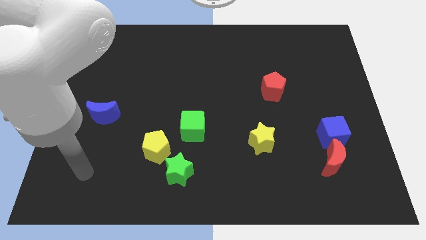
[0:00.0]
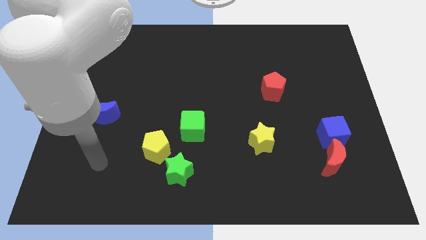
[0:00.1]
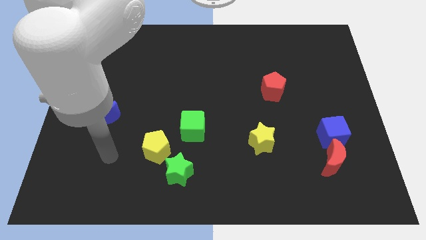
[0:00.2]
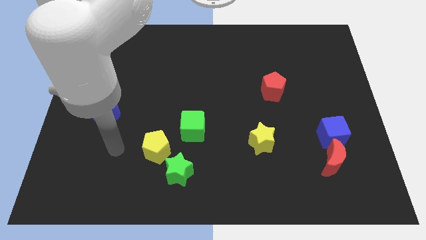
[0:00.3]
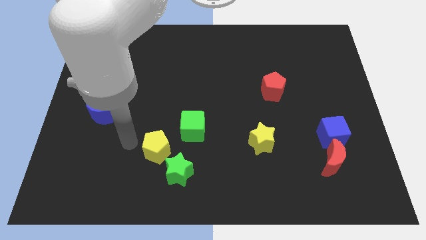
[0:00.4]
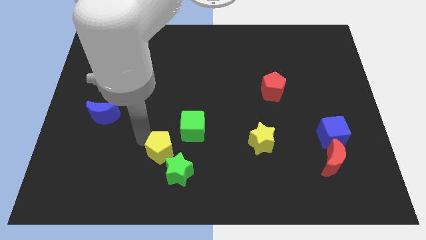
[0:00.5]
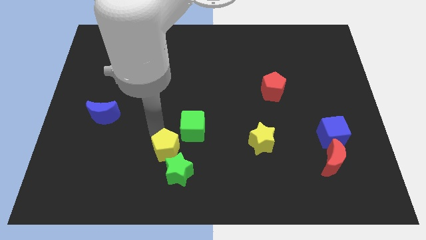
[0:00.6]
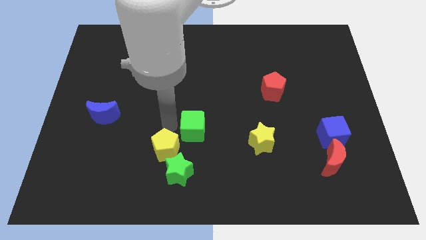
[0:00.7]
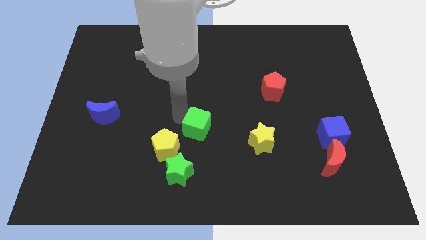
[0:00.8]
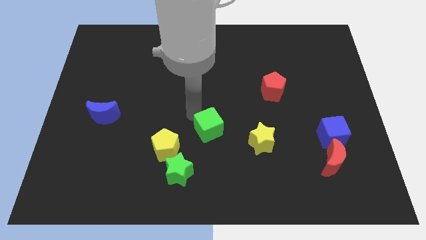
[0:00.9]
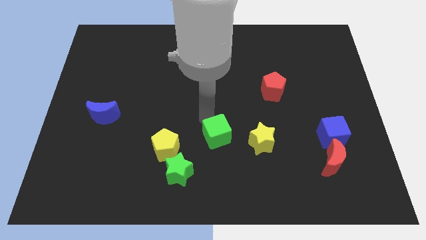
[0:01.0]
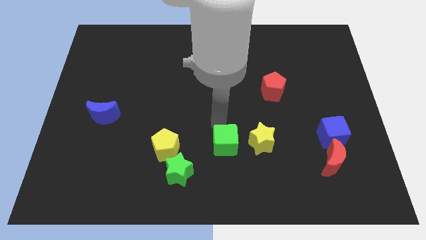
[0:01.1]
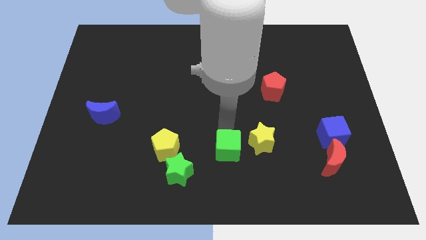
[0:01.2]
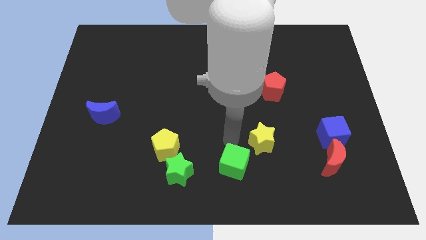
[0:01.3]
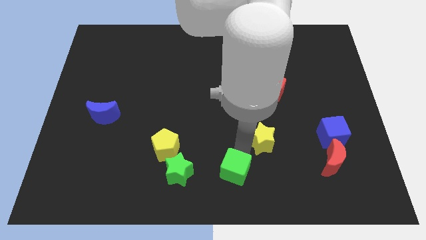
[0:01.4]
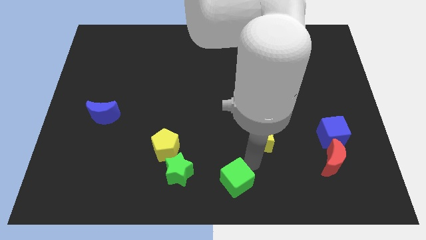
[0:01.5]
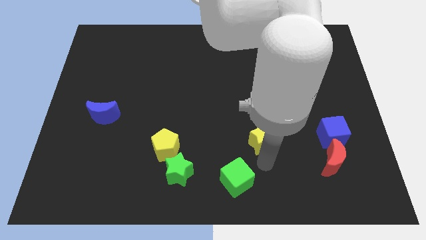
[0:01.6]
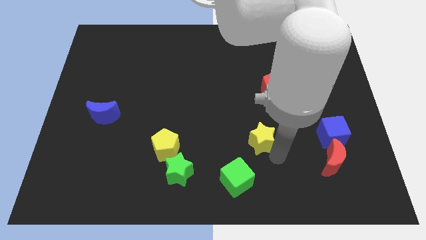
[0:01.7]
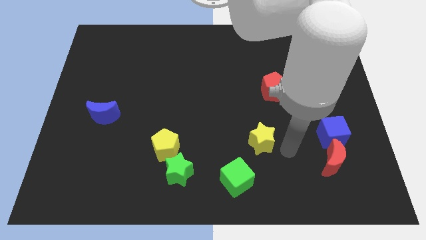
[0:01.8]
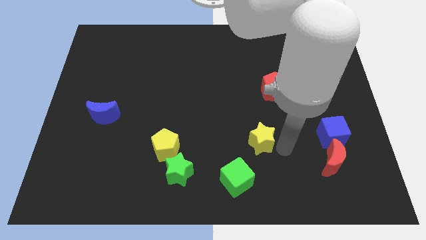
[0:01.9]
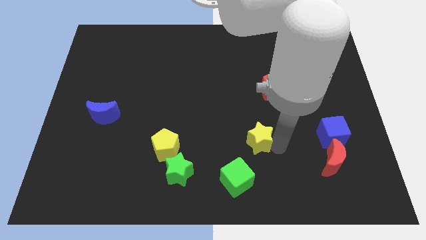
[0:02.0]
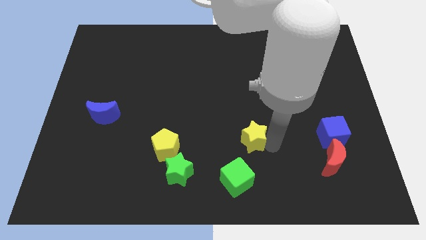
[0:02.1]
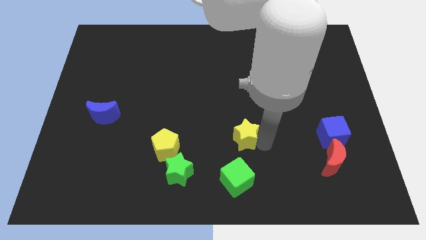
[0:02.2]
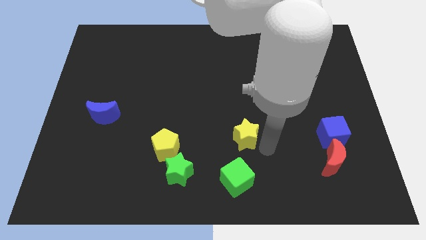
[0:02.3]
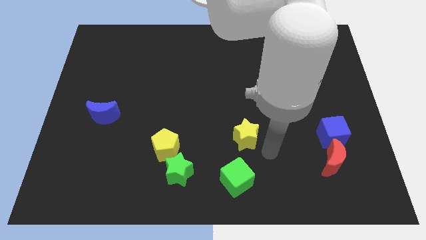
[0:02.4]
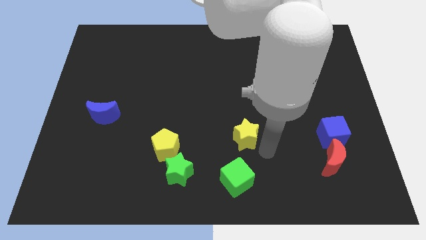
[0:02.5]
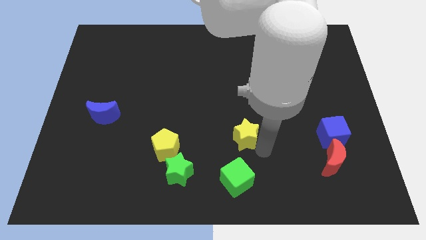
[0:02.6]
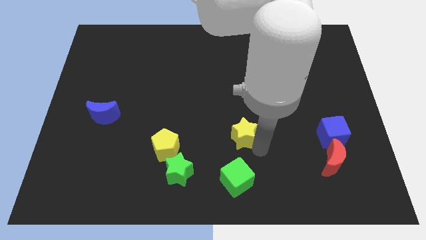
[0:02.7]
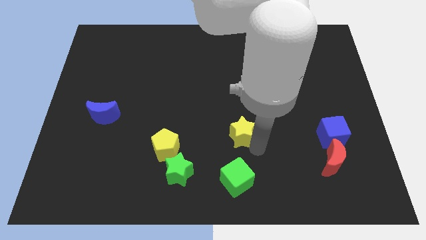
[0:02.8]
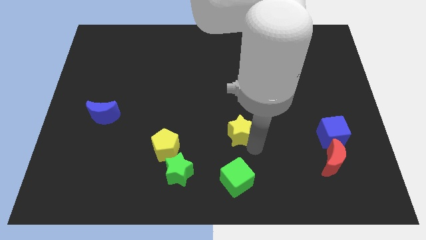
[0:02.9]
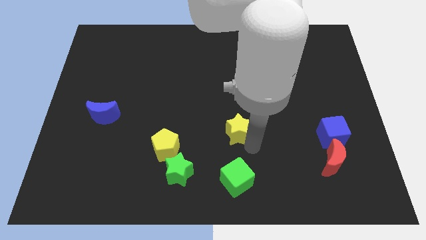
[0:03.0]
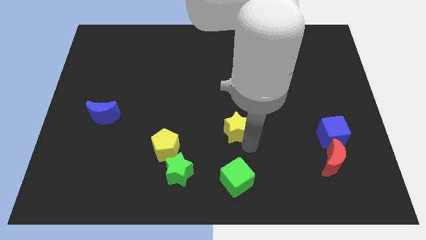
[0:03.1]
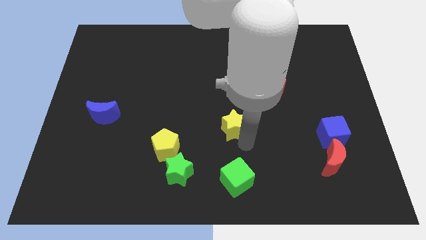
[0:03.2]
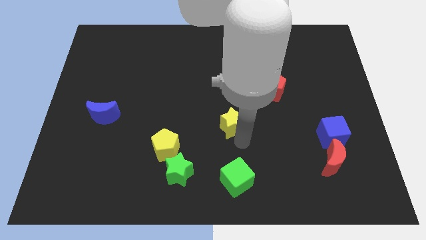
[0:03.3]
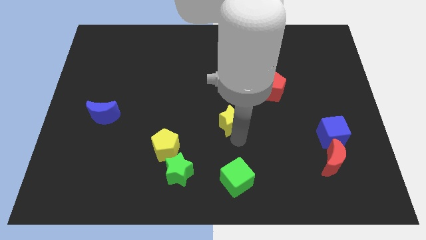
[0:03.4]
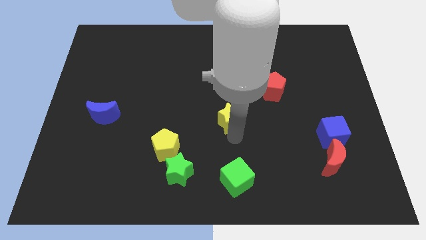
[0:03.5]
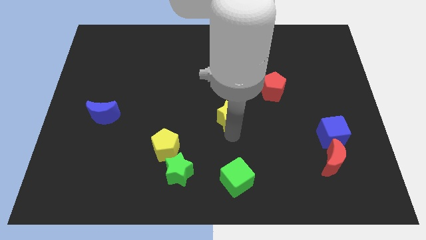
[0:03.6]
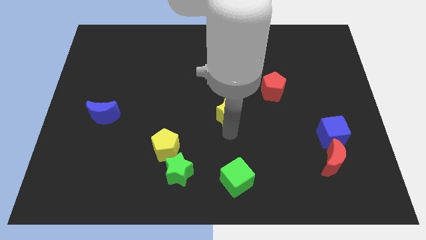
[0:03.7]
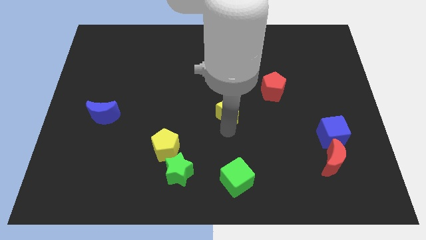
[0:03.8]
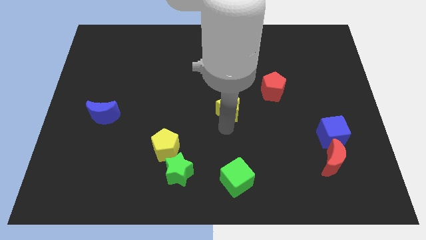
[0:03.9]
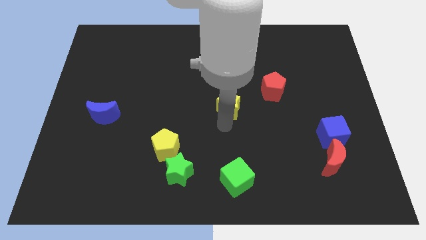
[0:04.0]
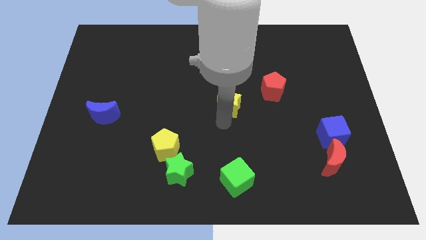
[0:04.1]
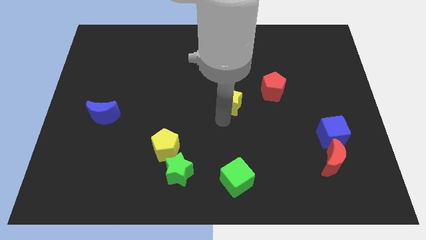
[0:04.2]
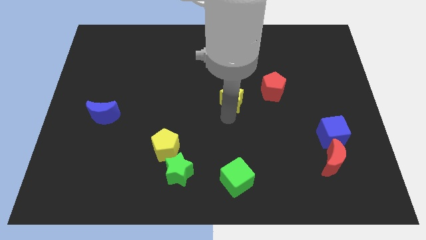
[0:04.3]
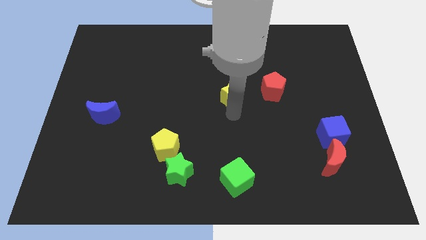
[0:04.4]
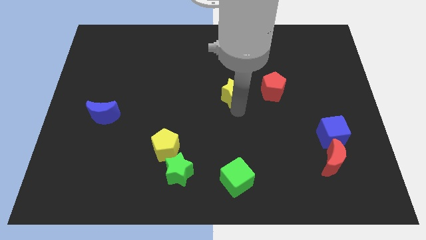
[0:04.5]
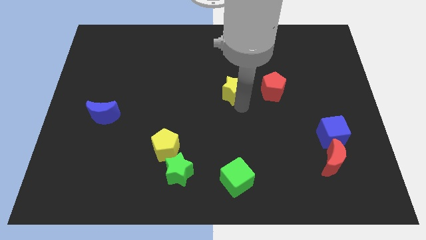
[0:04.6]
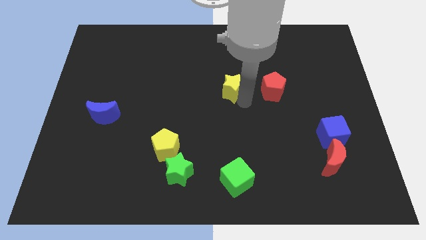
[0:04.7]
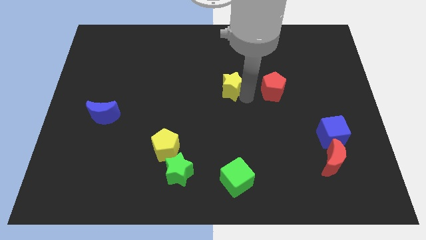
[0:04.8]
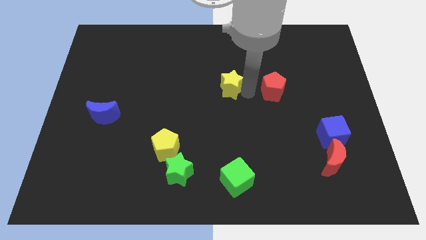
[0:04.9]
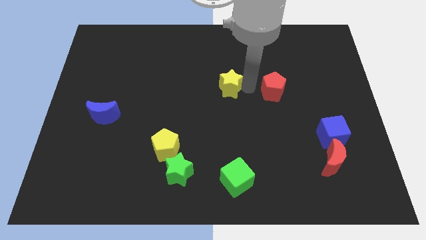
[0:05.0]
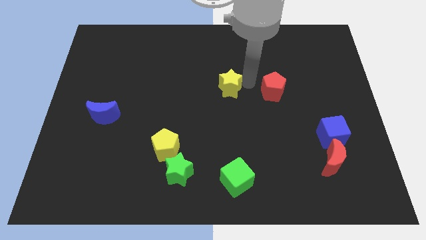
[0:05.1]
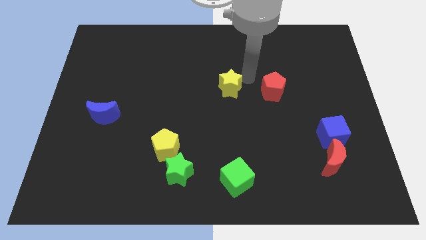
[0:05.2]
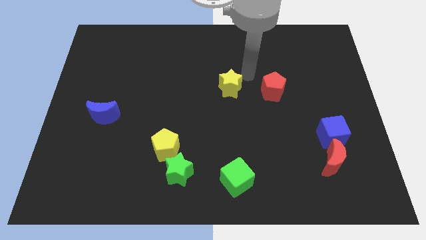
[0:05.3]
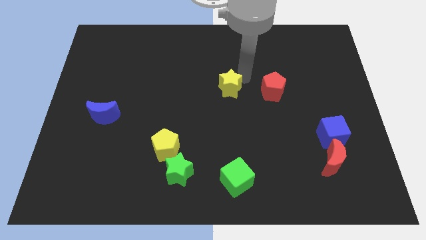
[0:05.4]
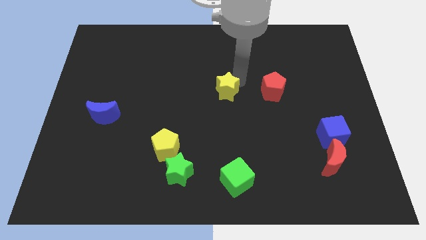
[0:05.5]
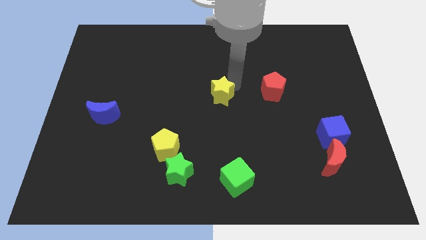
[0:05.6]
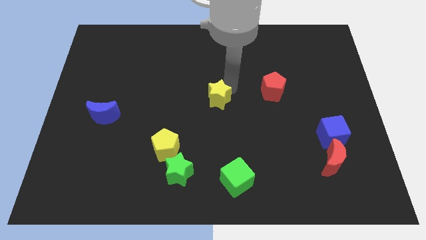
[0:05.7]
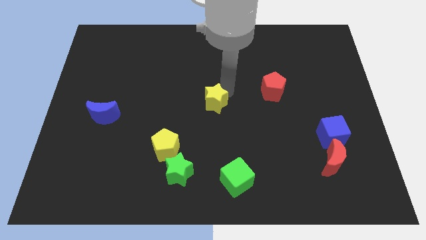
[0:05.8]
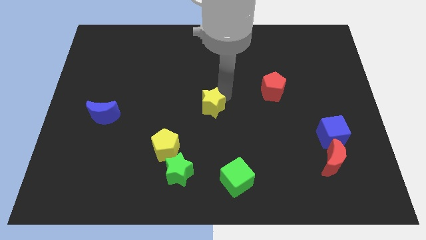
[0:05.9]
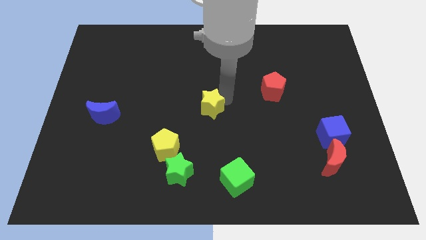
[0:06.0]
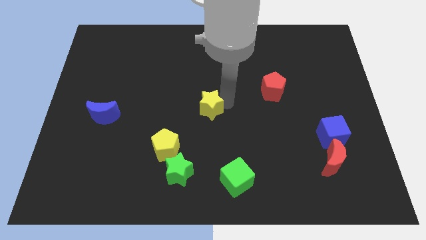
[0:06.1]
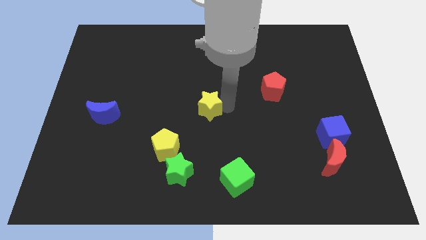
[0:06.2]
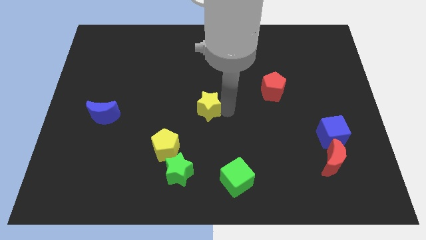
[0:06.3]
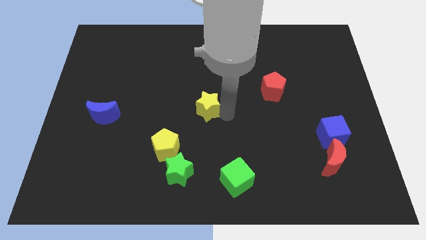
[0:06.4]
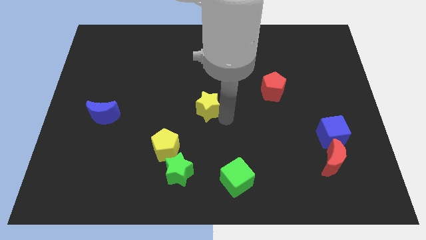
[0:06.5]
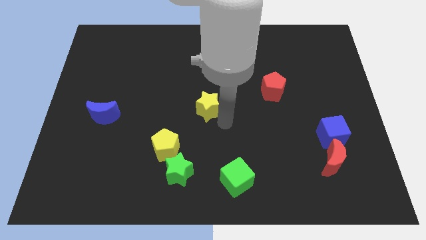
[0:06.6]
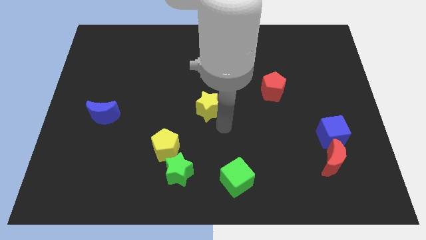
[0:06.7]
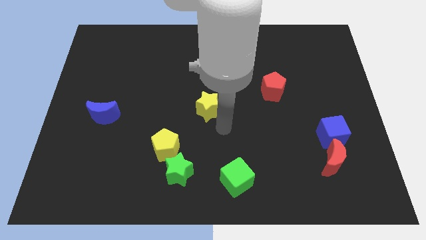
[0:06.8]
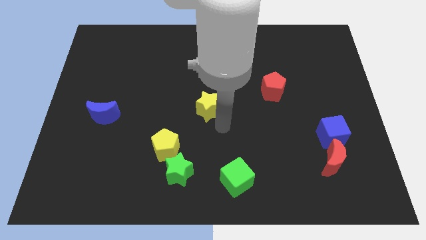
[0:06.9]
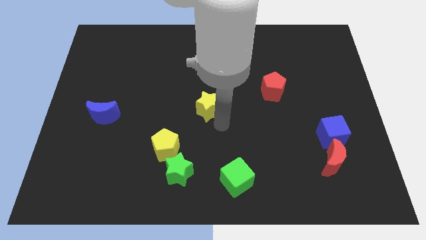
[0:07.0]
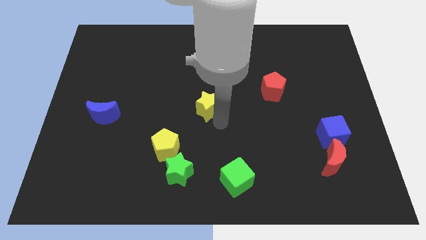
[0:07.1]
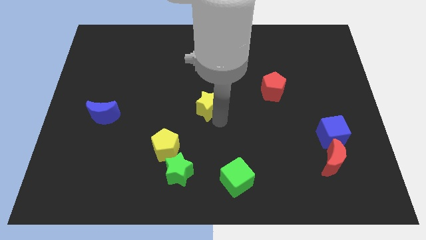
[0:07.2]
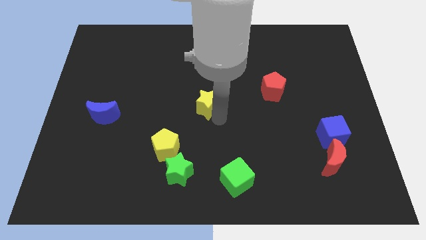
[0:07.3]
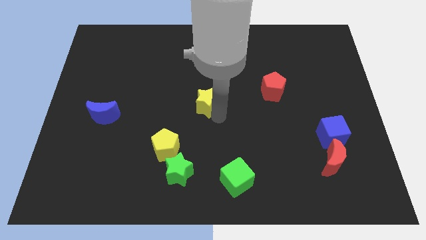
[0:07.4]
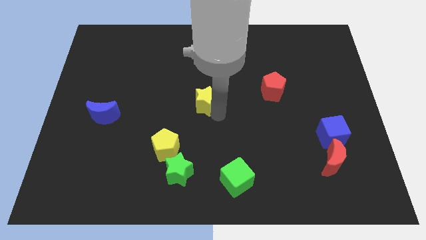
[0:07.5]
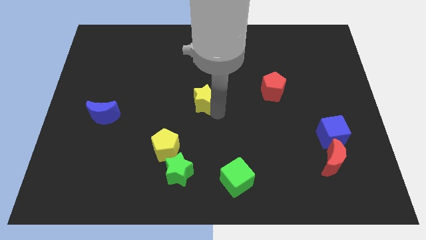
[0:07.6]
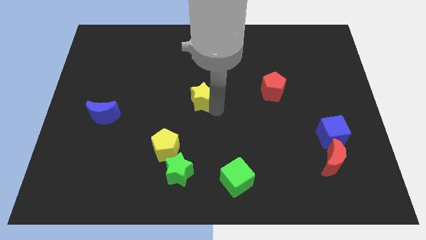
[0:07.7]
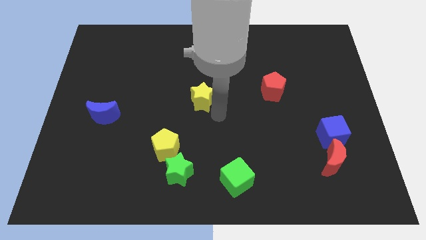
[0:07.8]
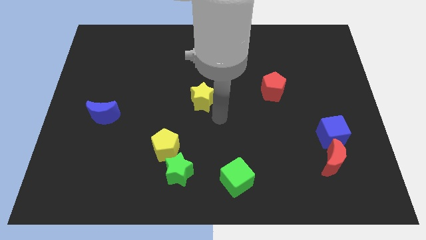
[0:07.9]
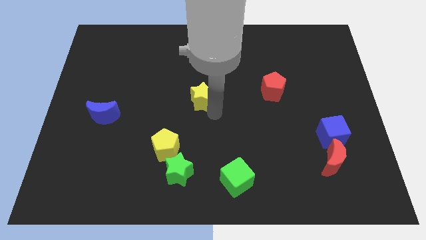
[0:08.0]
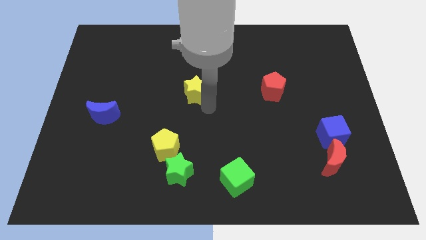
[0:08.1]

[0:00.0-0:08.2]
slide the yellow star diagonally upwards and to the left

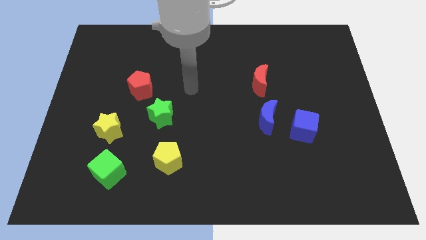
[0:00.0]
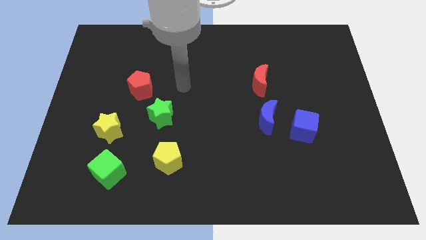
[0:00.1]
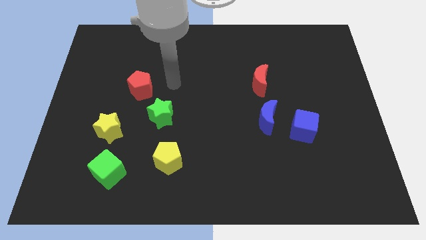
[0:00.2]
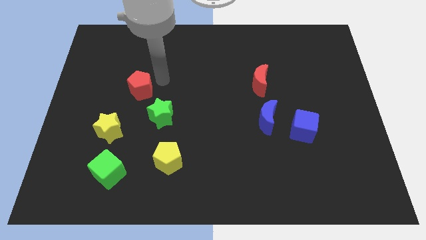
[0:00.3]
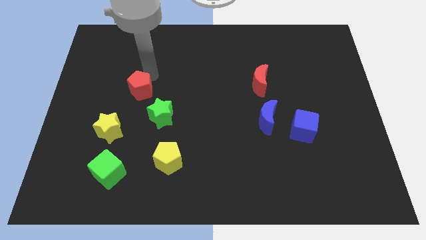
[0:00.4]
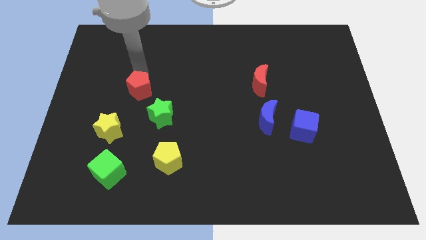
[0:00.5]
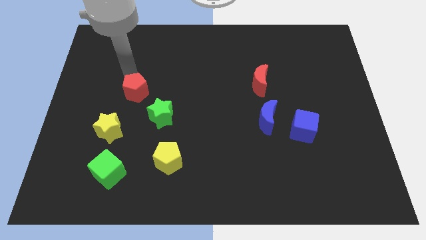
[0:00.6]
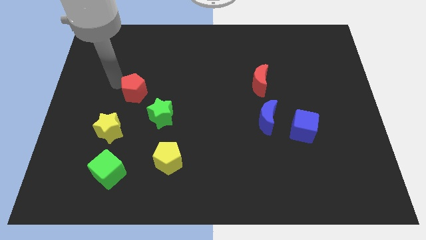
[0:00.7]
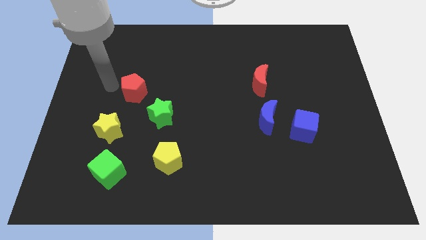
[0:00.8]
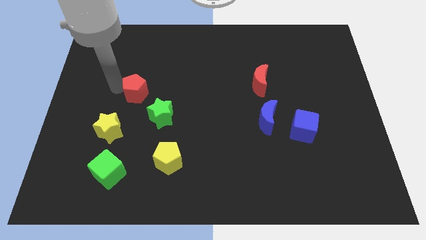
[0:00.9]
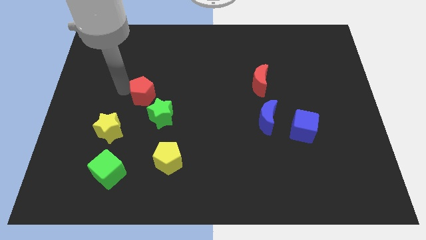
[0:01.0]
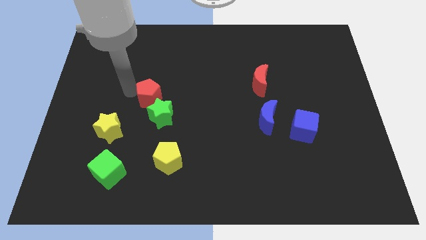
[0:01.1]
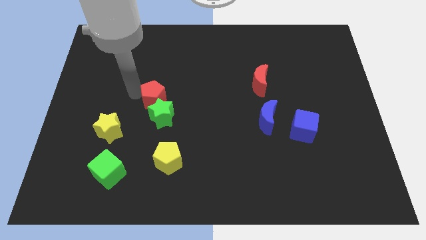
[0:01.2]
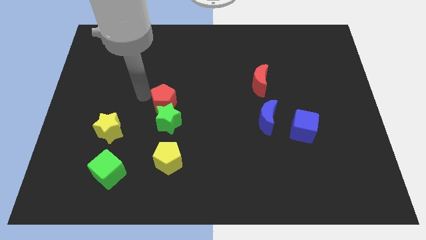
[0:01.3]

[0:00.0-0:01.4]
move the red pentagon downwards and right a bit
